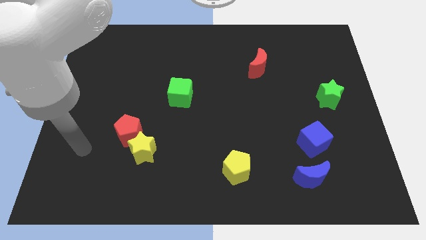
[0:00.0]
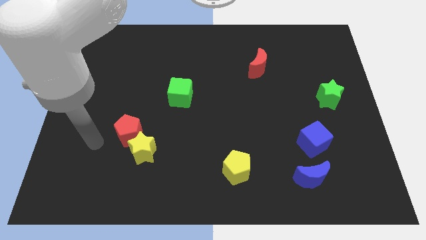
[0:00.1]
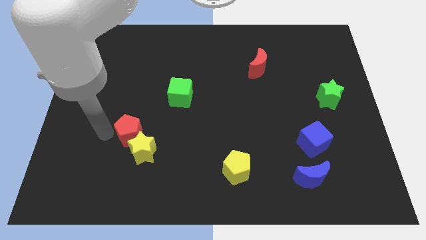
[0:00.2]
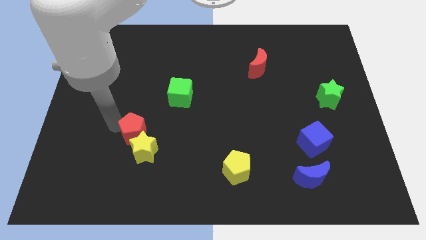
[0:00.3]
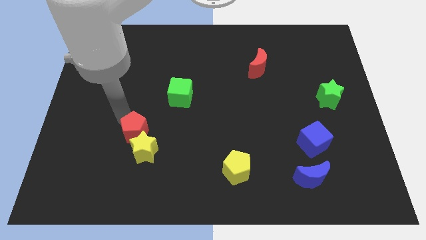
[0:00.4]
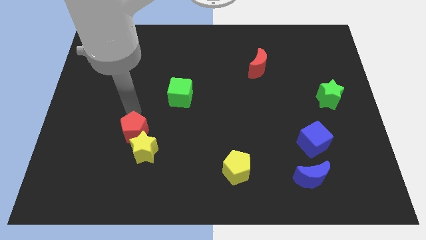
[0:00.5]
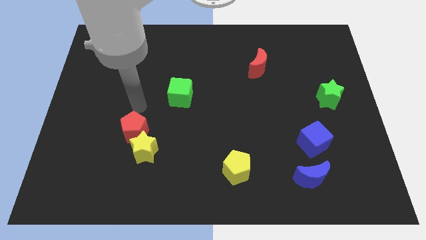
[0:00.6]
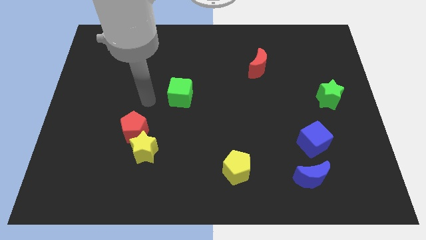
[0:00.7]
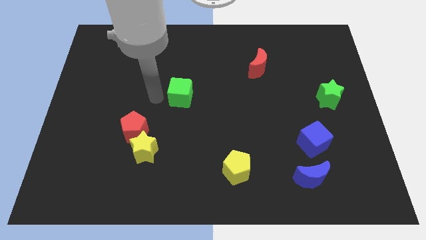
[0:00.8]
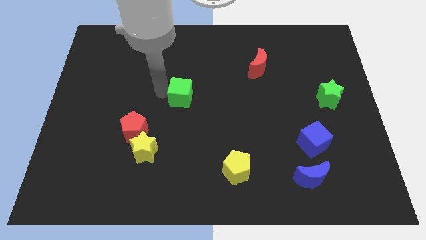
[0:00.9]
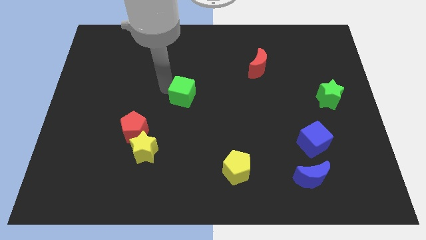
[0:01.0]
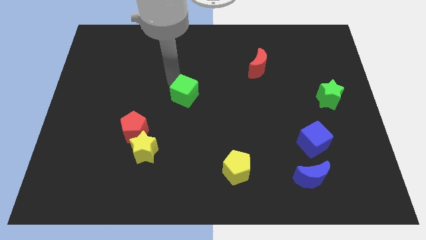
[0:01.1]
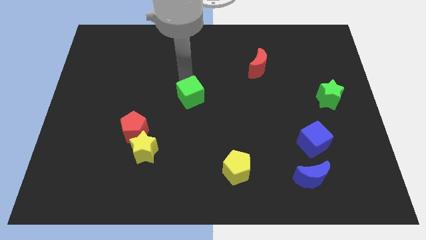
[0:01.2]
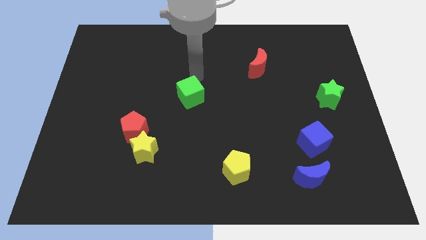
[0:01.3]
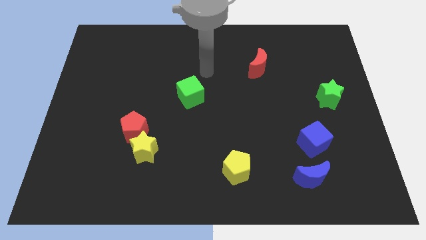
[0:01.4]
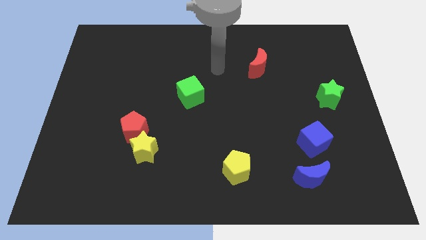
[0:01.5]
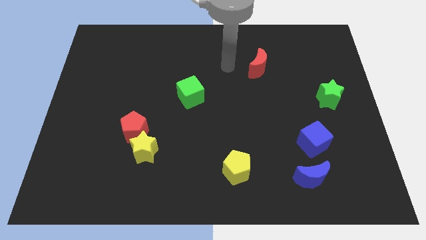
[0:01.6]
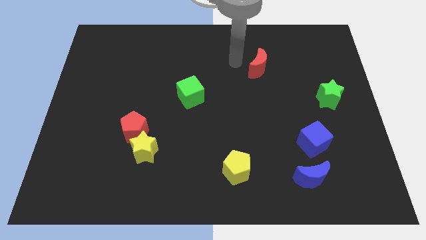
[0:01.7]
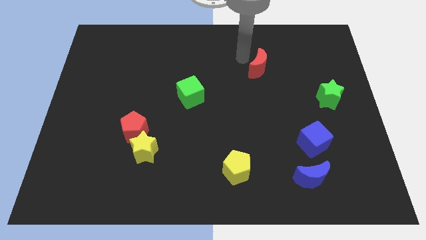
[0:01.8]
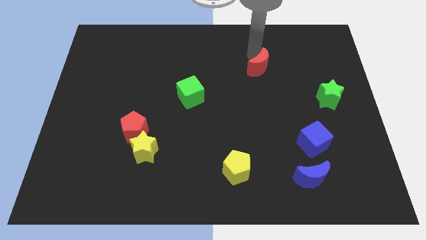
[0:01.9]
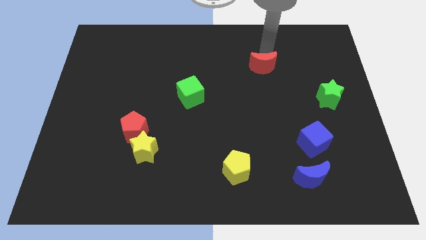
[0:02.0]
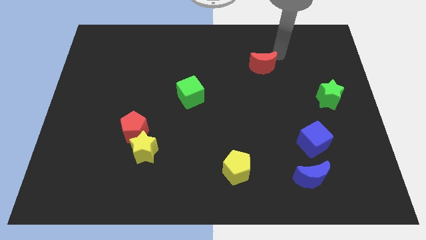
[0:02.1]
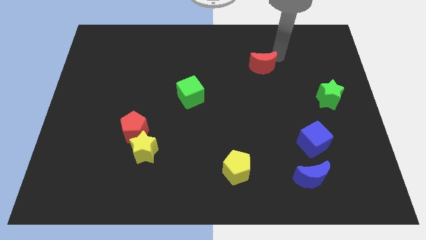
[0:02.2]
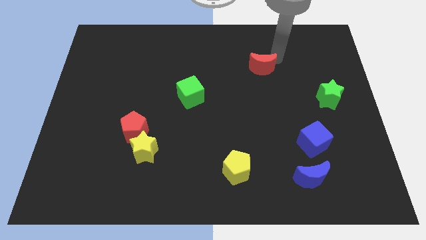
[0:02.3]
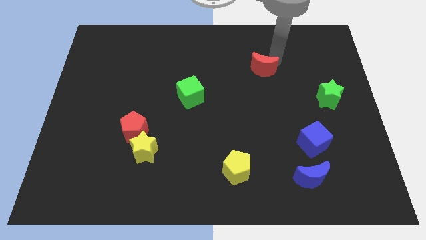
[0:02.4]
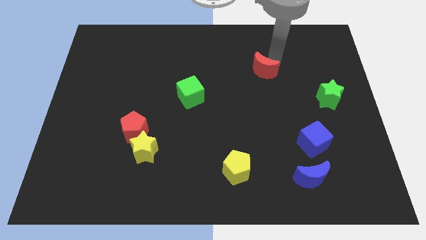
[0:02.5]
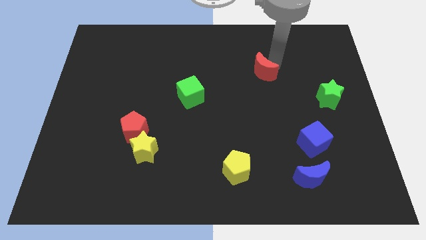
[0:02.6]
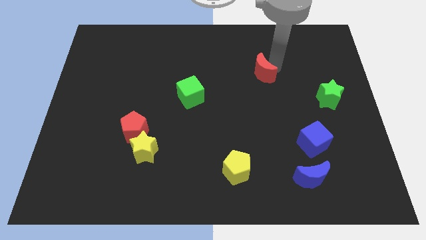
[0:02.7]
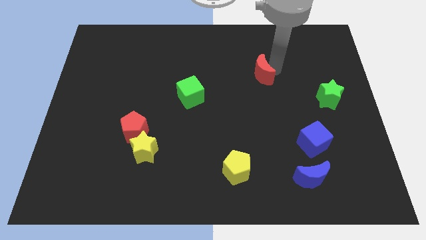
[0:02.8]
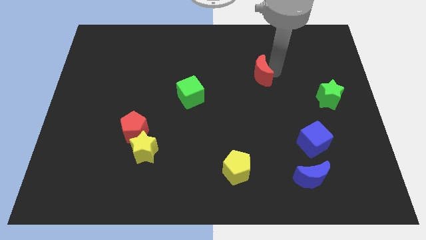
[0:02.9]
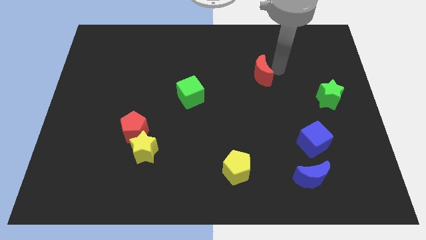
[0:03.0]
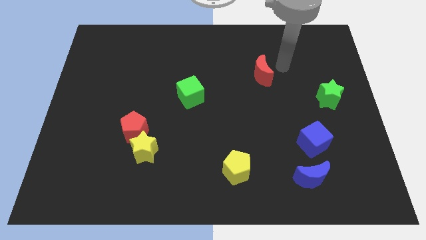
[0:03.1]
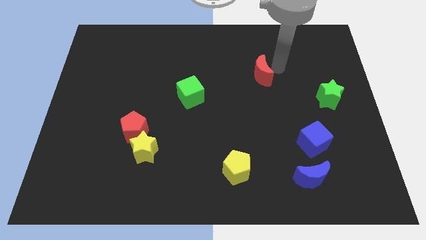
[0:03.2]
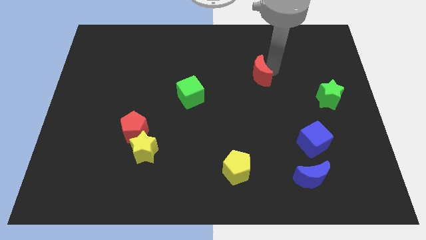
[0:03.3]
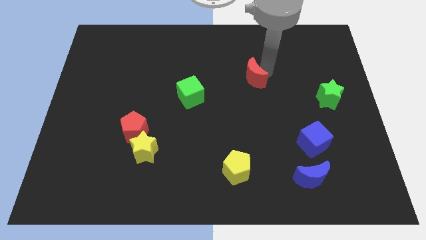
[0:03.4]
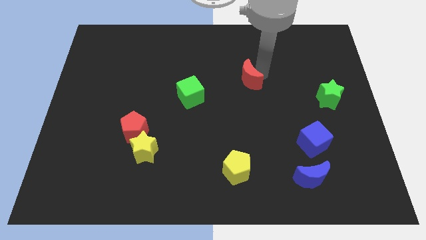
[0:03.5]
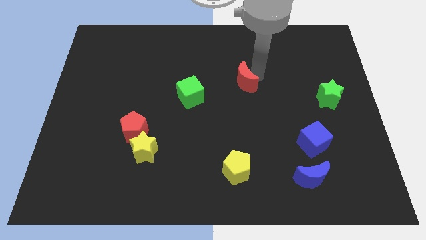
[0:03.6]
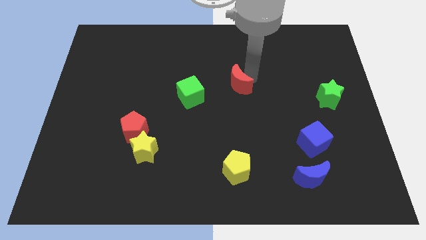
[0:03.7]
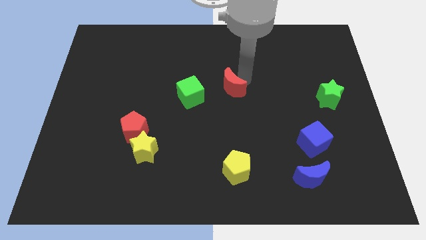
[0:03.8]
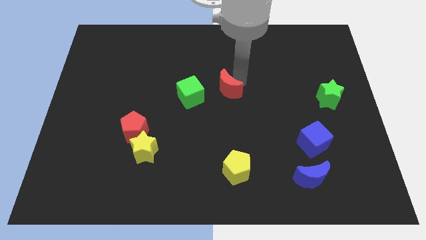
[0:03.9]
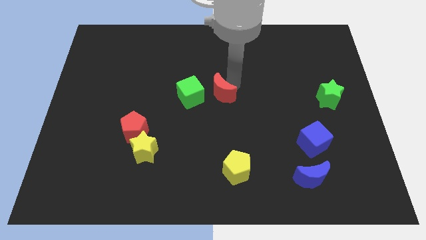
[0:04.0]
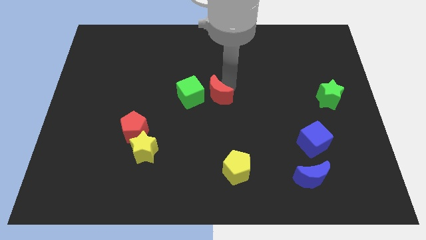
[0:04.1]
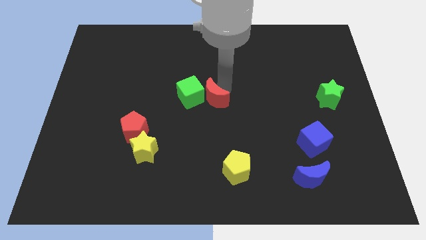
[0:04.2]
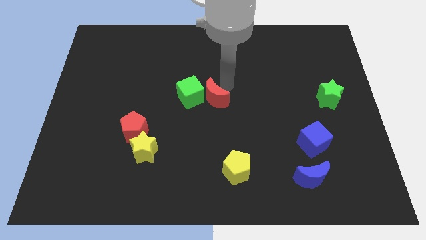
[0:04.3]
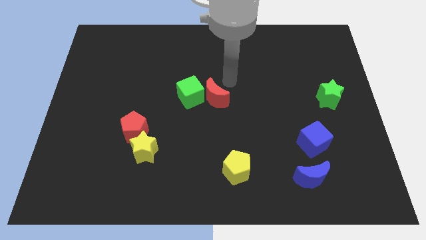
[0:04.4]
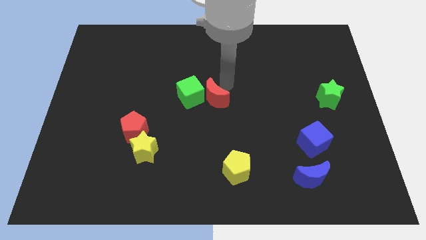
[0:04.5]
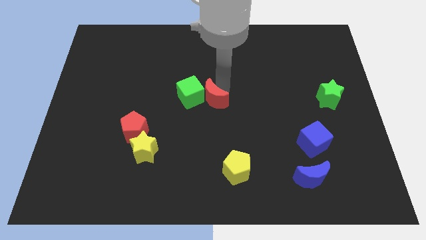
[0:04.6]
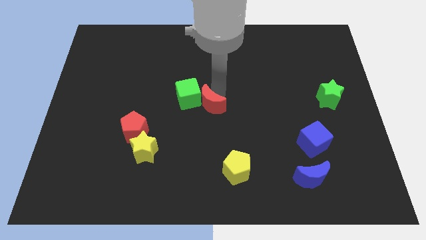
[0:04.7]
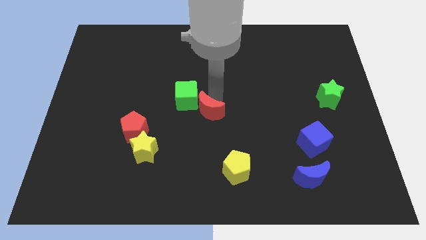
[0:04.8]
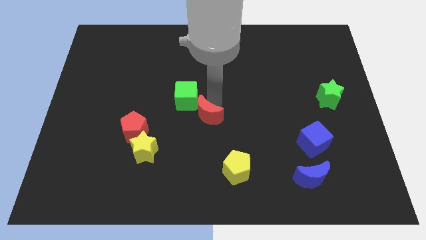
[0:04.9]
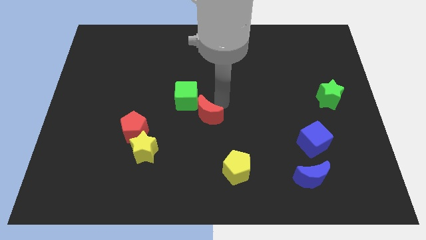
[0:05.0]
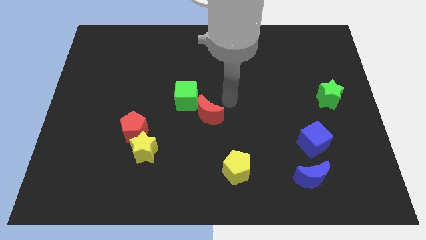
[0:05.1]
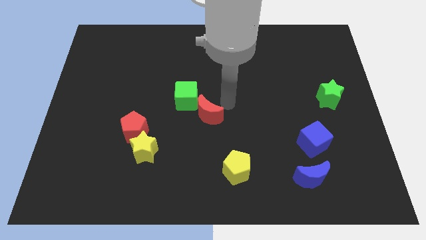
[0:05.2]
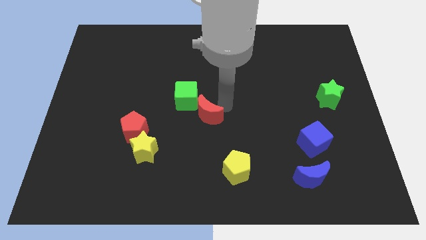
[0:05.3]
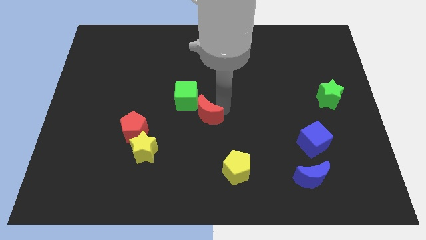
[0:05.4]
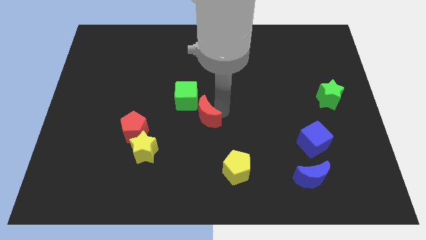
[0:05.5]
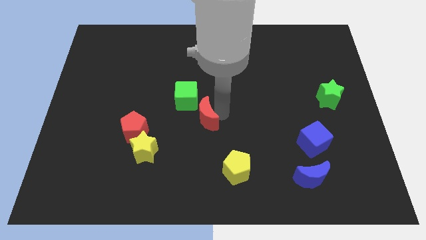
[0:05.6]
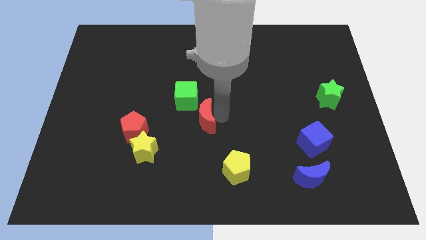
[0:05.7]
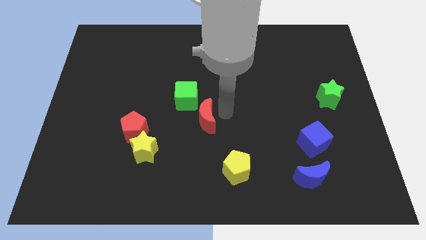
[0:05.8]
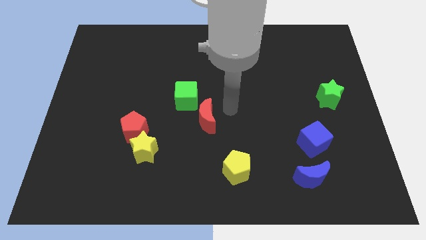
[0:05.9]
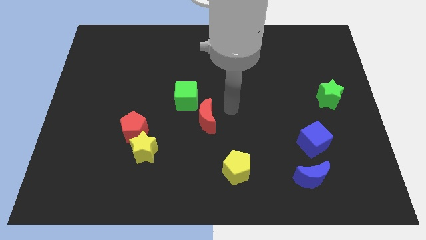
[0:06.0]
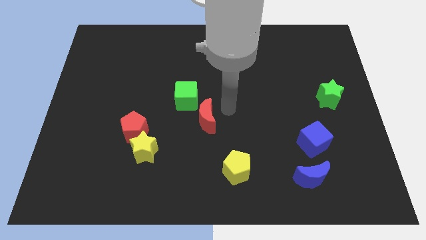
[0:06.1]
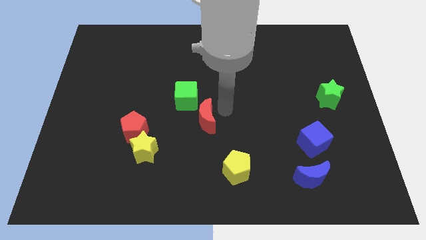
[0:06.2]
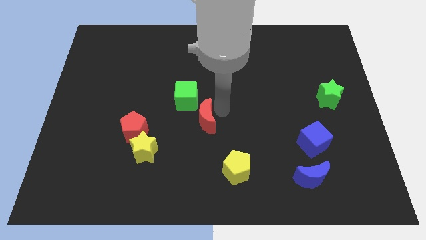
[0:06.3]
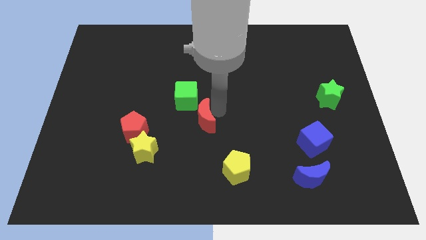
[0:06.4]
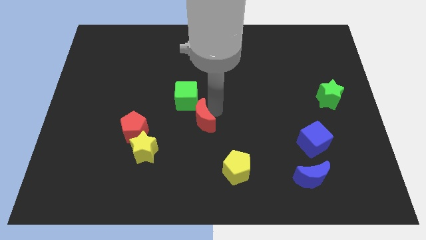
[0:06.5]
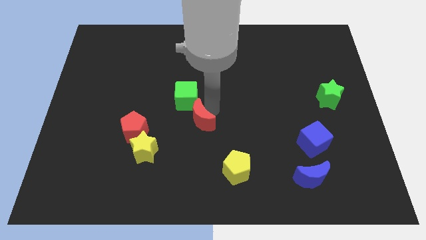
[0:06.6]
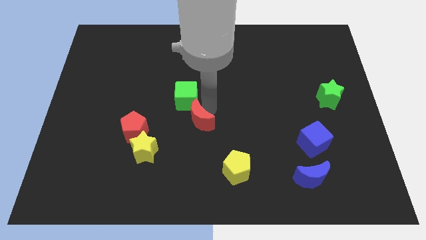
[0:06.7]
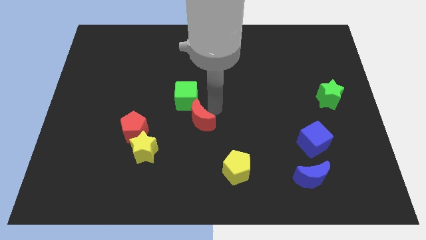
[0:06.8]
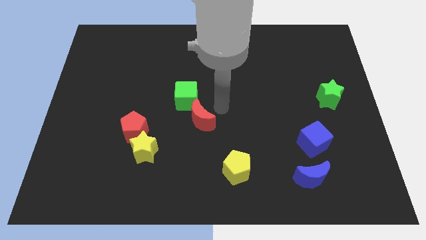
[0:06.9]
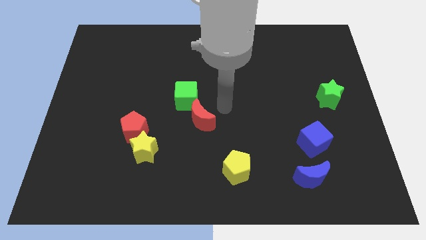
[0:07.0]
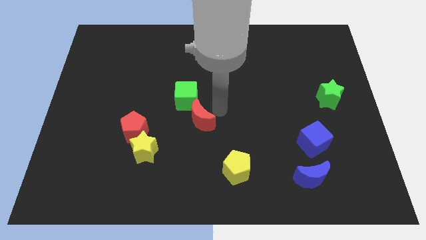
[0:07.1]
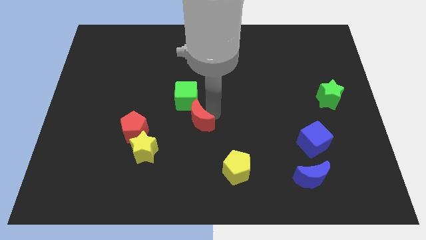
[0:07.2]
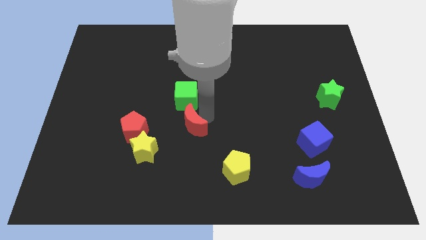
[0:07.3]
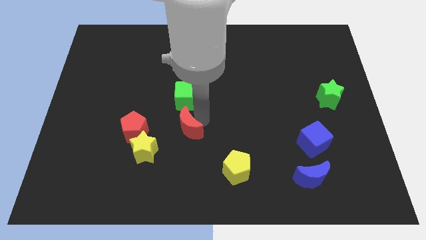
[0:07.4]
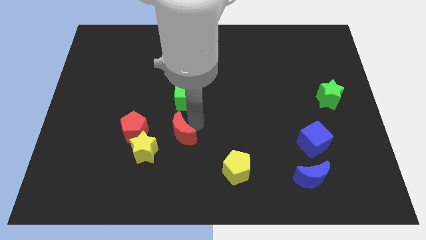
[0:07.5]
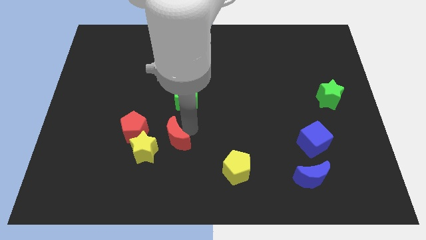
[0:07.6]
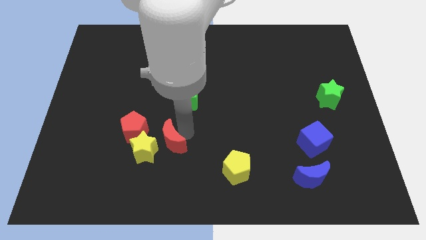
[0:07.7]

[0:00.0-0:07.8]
move the red moon close to the yellow star
